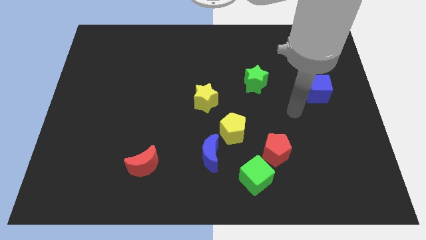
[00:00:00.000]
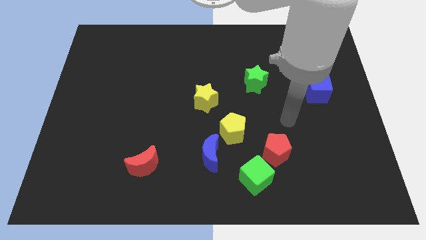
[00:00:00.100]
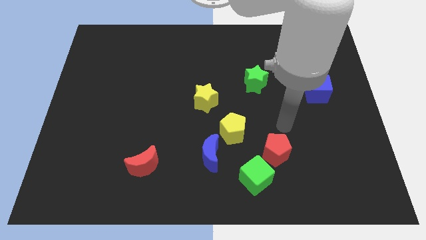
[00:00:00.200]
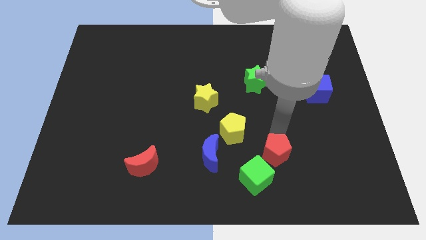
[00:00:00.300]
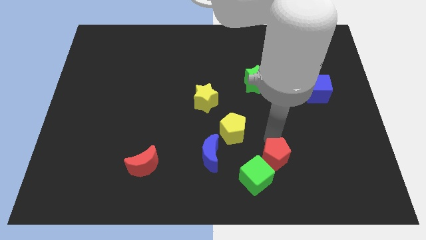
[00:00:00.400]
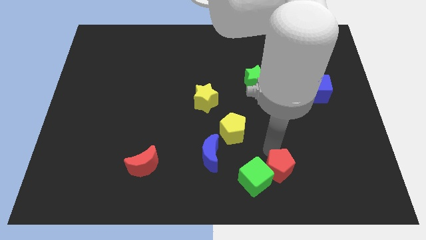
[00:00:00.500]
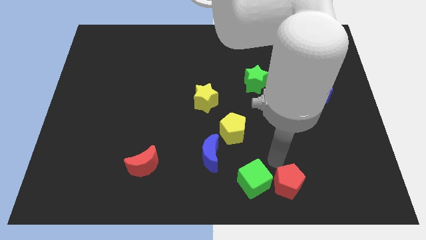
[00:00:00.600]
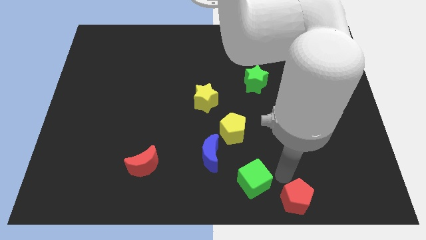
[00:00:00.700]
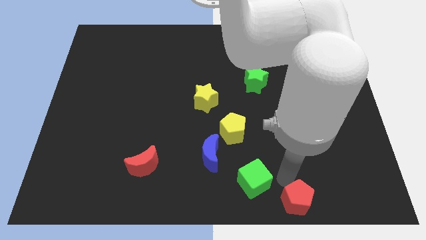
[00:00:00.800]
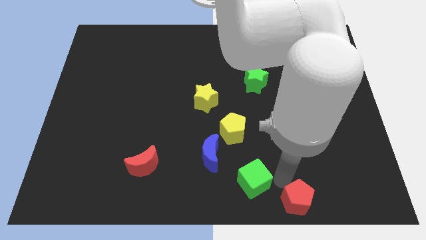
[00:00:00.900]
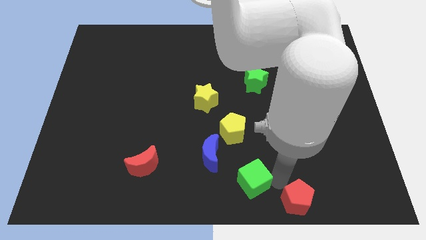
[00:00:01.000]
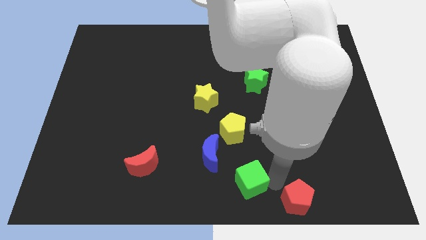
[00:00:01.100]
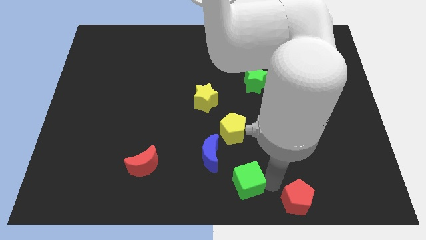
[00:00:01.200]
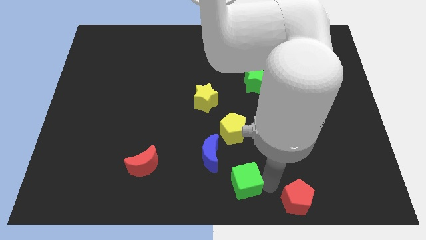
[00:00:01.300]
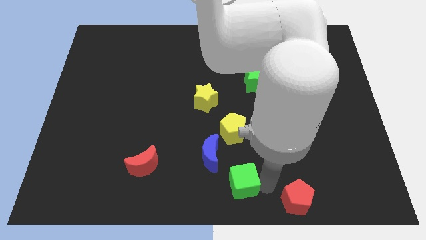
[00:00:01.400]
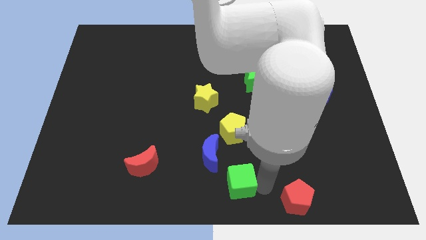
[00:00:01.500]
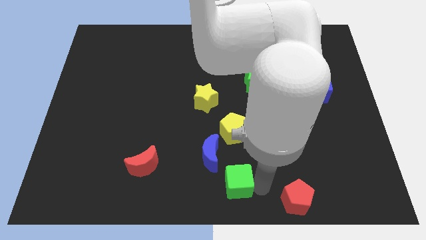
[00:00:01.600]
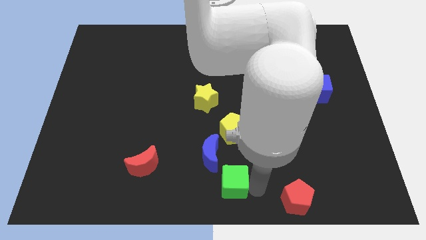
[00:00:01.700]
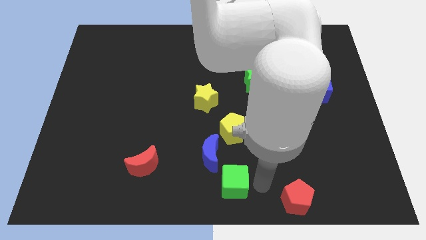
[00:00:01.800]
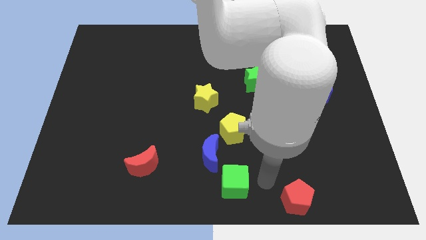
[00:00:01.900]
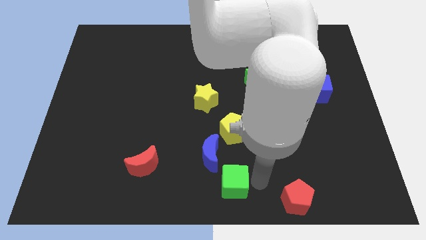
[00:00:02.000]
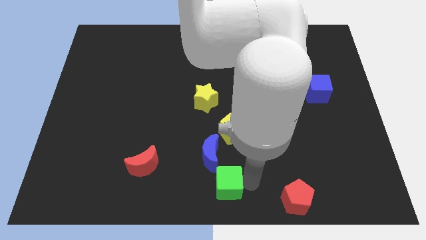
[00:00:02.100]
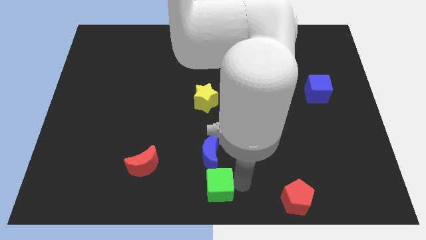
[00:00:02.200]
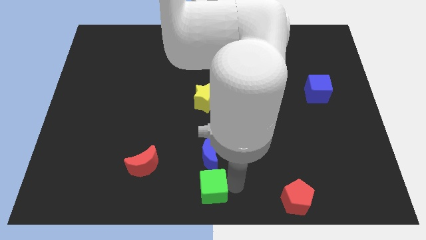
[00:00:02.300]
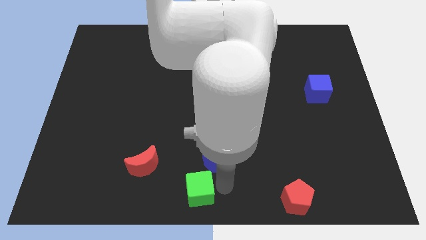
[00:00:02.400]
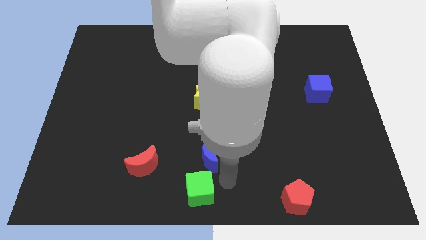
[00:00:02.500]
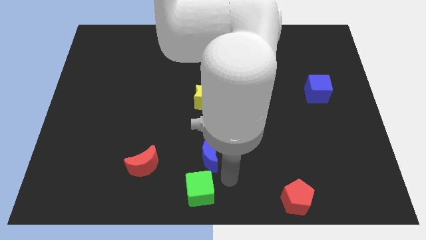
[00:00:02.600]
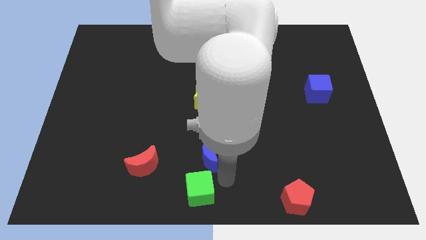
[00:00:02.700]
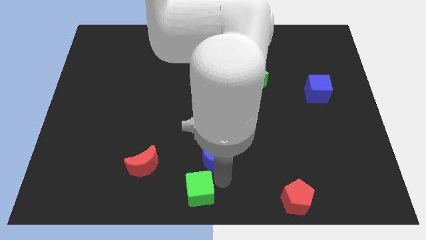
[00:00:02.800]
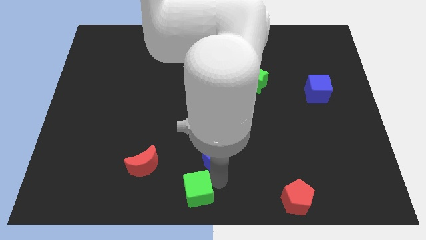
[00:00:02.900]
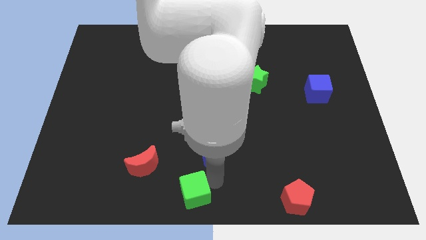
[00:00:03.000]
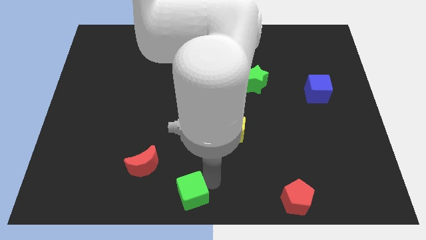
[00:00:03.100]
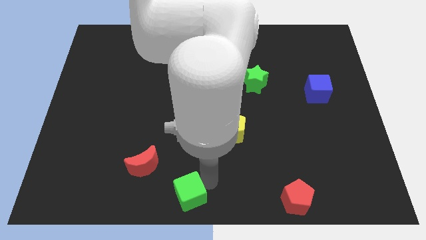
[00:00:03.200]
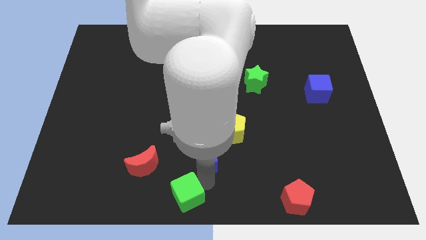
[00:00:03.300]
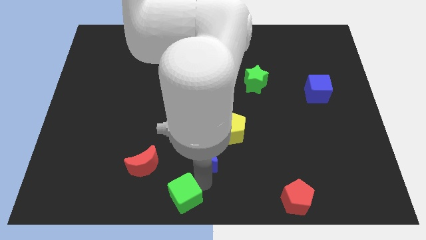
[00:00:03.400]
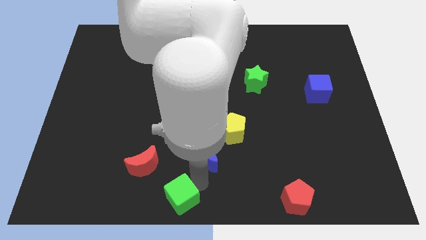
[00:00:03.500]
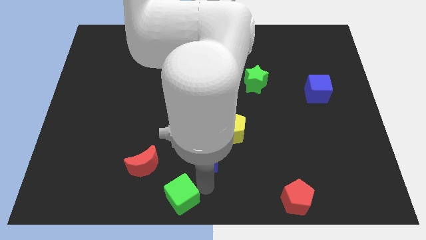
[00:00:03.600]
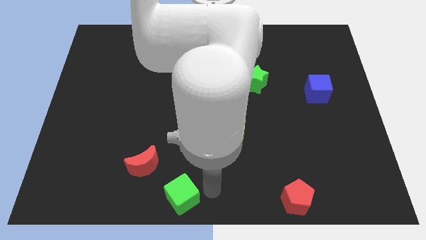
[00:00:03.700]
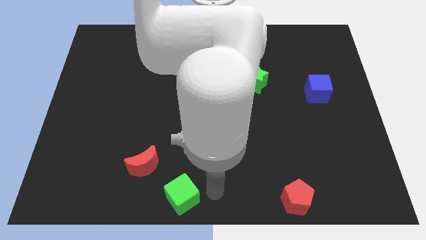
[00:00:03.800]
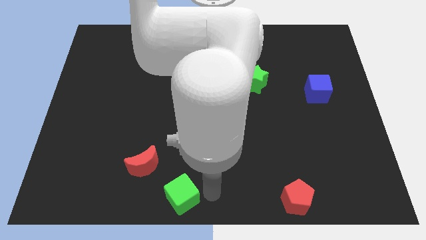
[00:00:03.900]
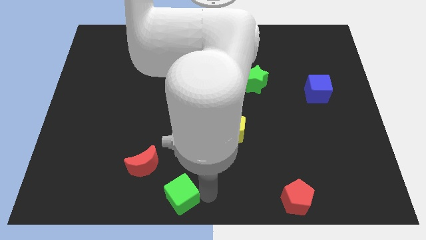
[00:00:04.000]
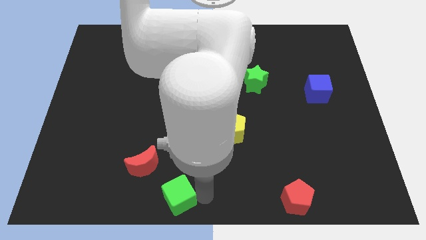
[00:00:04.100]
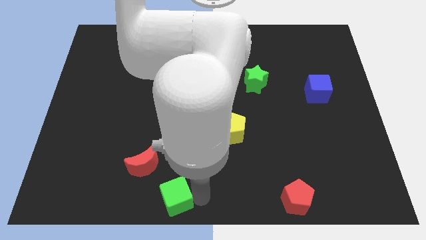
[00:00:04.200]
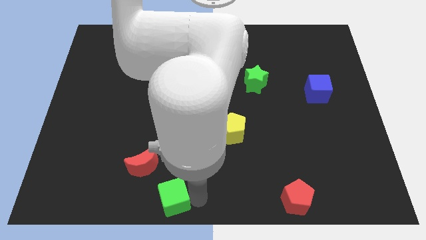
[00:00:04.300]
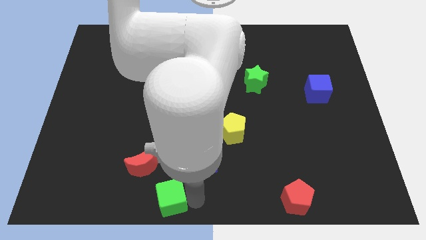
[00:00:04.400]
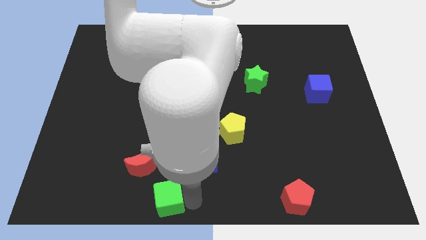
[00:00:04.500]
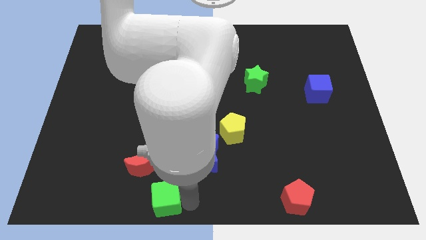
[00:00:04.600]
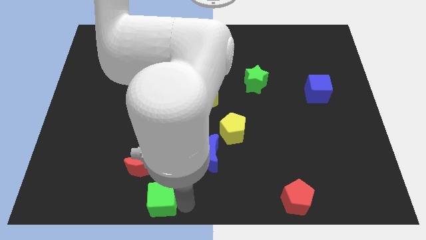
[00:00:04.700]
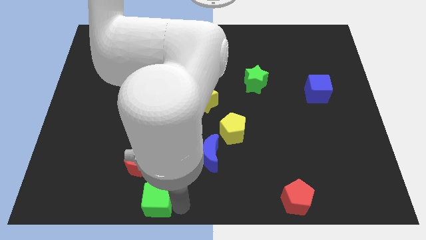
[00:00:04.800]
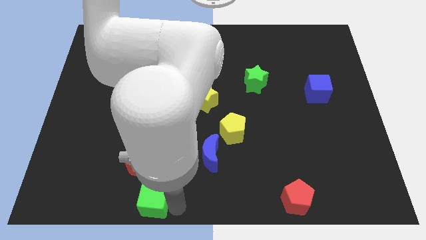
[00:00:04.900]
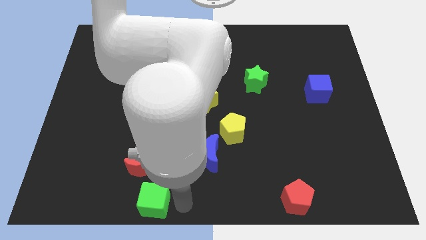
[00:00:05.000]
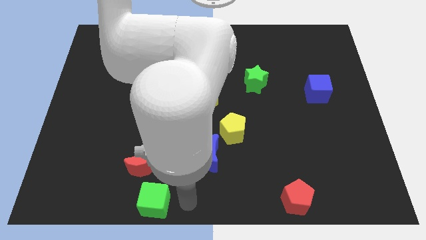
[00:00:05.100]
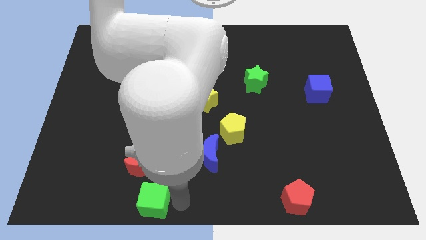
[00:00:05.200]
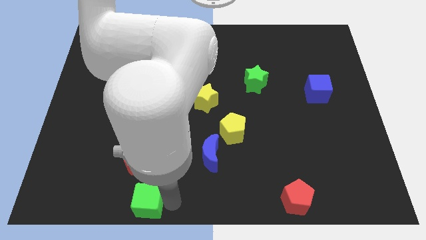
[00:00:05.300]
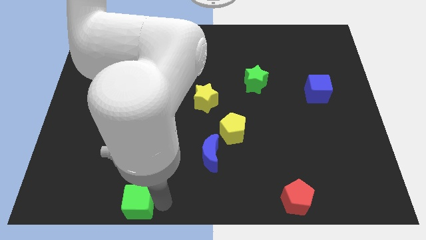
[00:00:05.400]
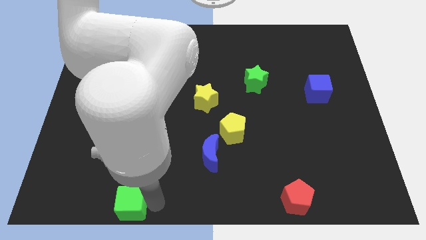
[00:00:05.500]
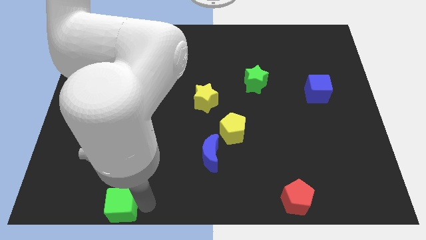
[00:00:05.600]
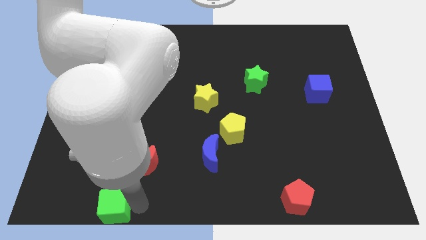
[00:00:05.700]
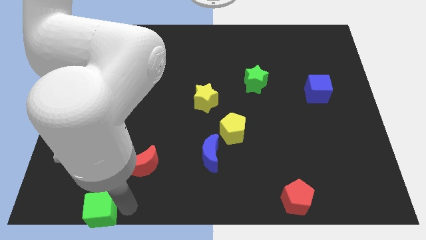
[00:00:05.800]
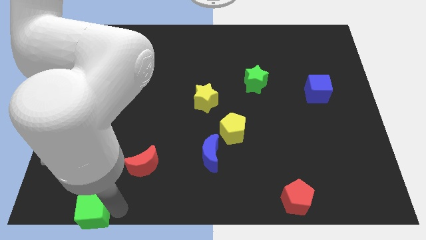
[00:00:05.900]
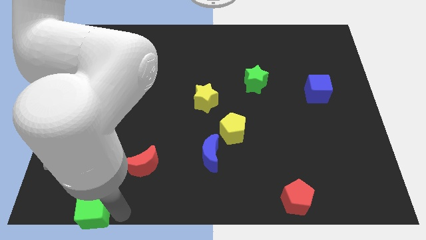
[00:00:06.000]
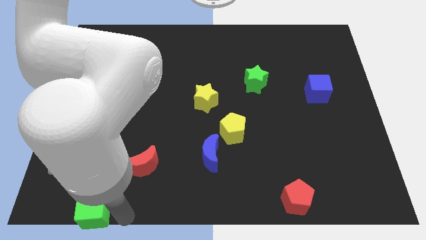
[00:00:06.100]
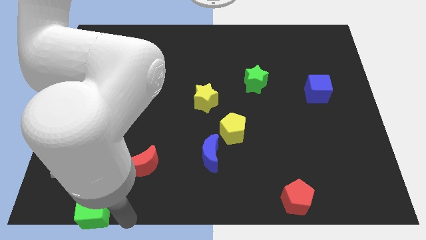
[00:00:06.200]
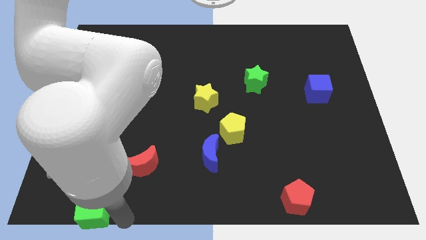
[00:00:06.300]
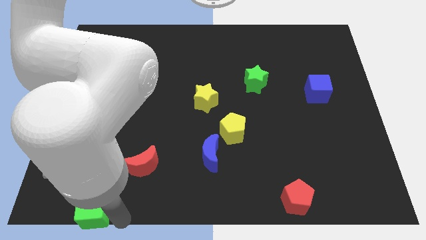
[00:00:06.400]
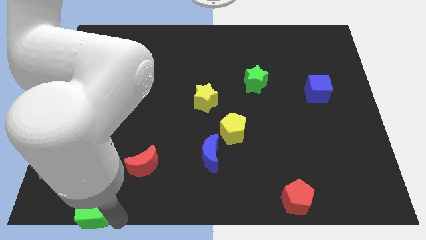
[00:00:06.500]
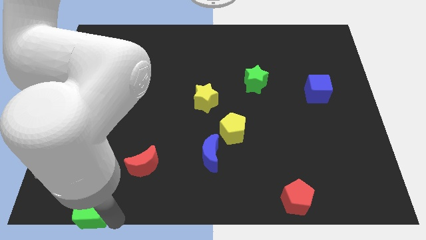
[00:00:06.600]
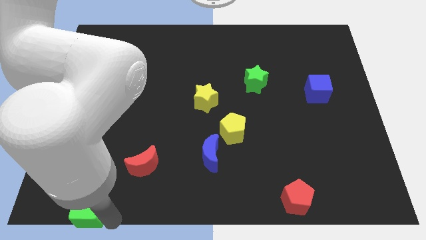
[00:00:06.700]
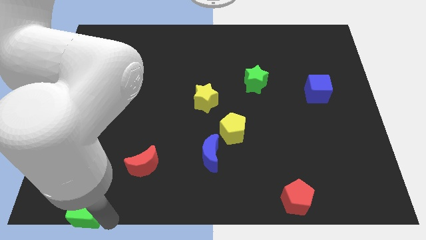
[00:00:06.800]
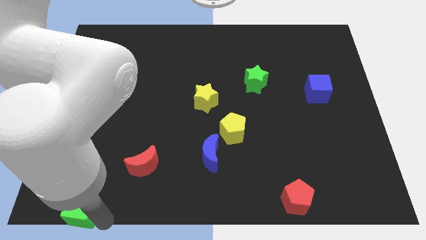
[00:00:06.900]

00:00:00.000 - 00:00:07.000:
slide the green cube to the bottom left
